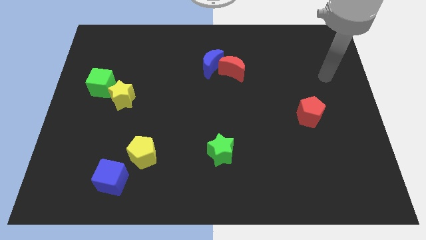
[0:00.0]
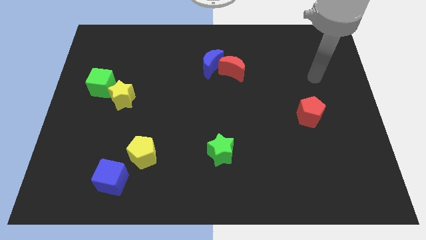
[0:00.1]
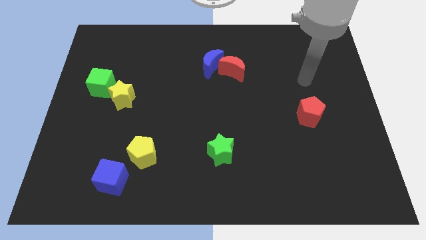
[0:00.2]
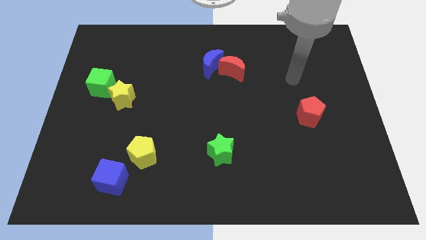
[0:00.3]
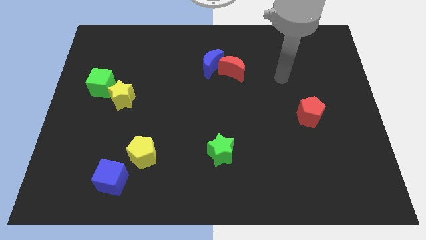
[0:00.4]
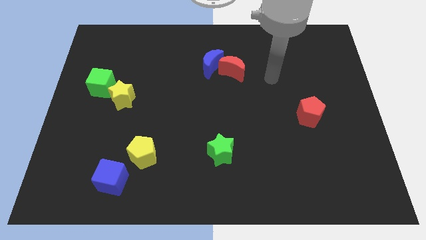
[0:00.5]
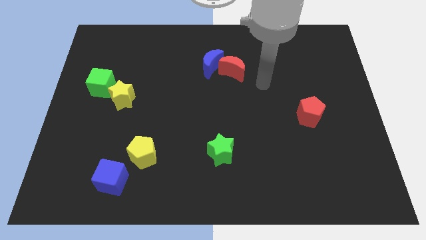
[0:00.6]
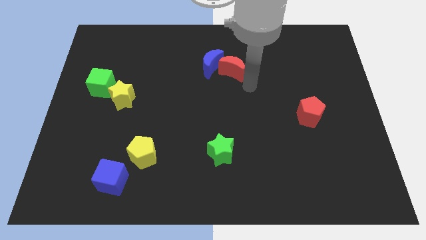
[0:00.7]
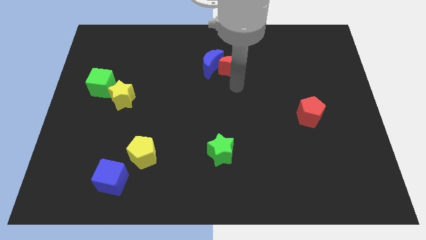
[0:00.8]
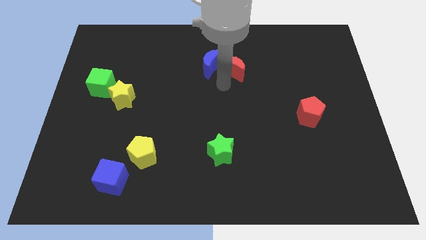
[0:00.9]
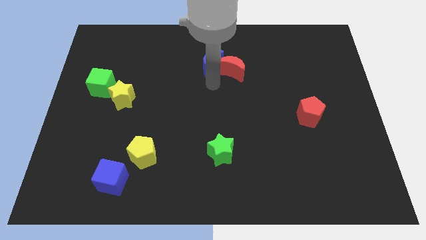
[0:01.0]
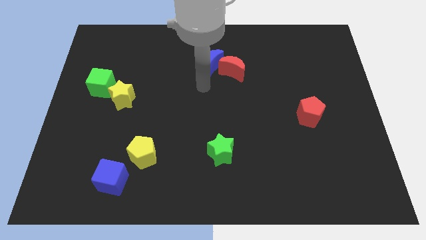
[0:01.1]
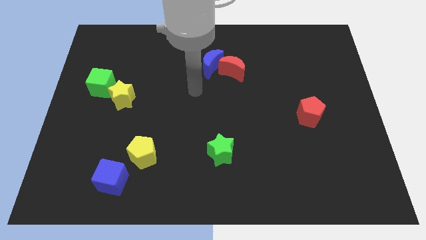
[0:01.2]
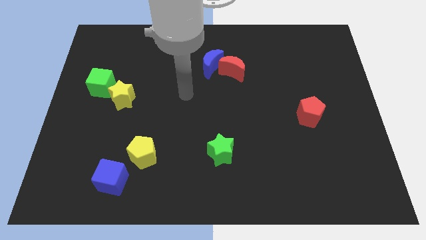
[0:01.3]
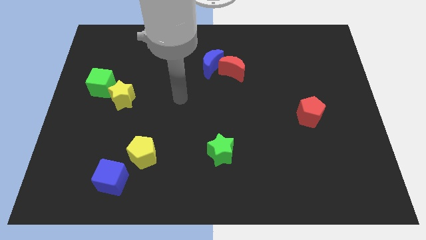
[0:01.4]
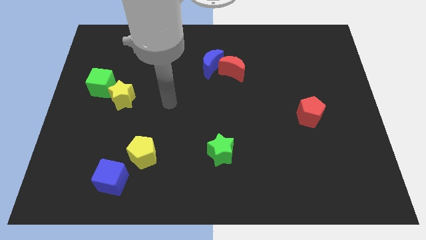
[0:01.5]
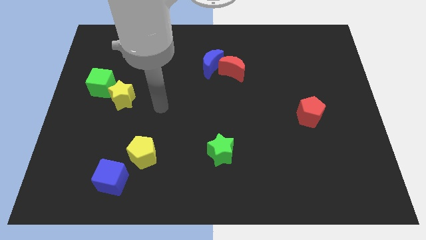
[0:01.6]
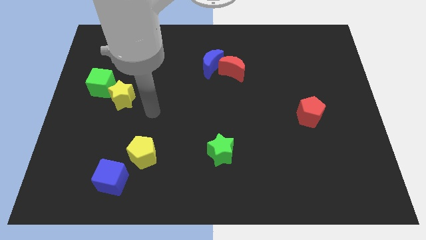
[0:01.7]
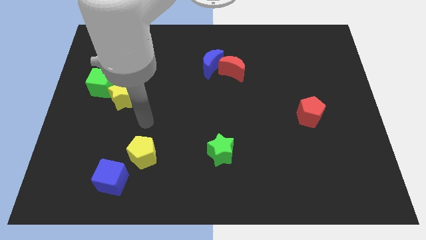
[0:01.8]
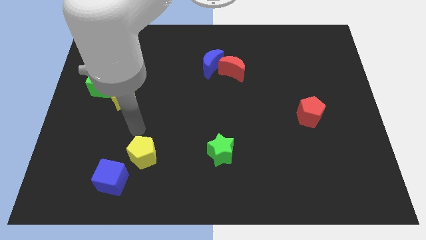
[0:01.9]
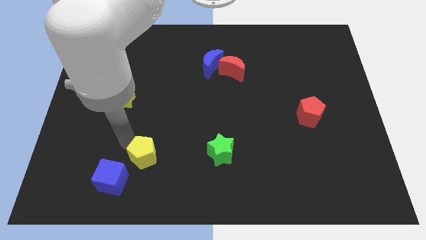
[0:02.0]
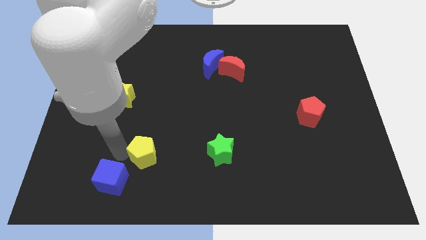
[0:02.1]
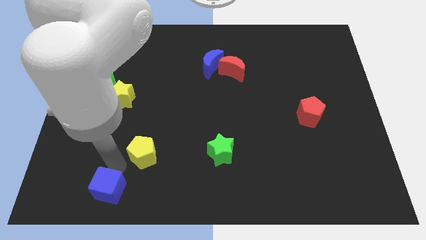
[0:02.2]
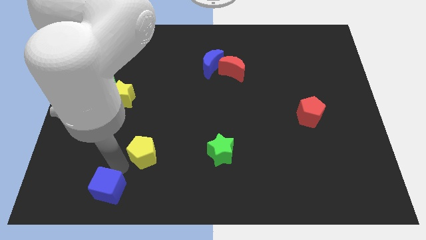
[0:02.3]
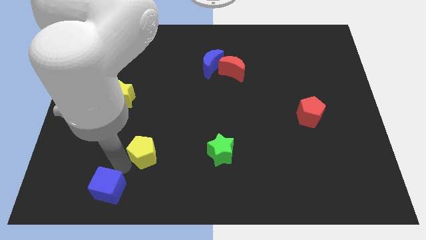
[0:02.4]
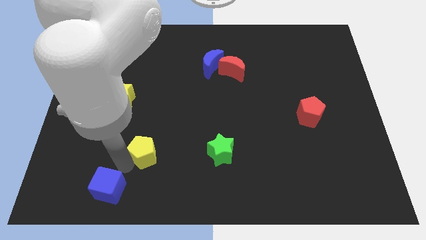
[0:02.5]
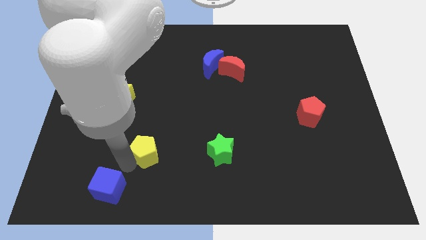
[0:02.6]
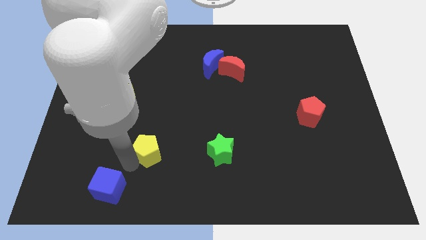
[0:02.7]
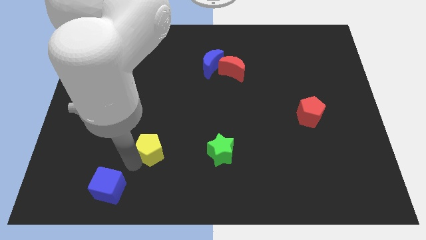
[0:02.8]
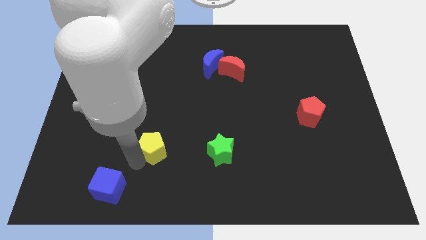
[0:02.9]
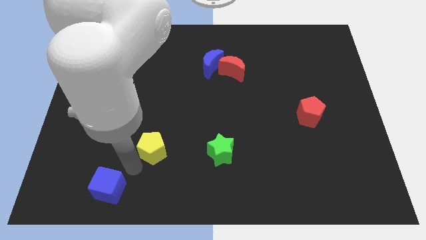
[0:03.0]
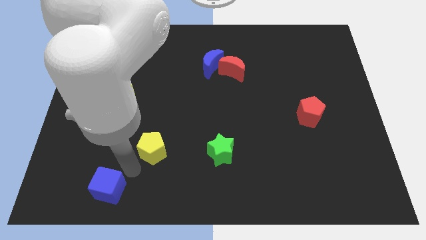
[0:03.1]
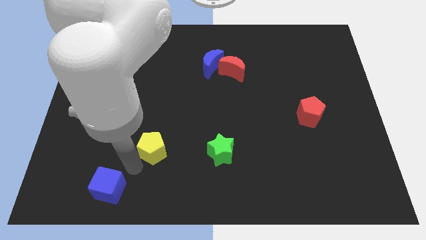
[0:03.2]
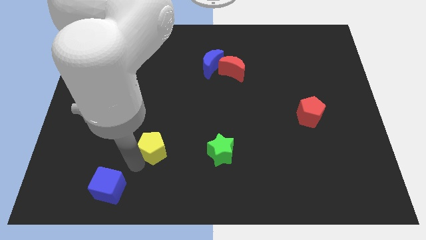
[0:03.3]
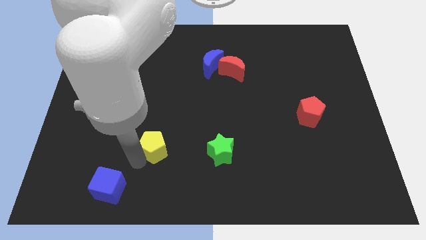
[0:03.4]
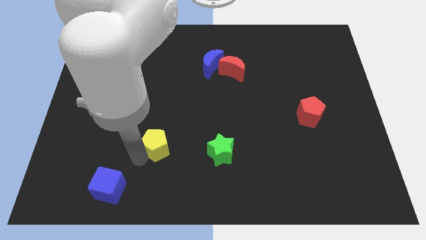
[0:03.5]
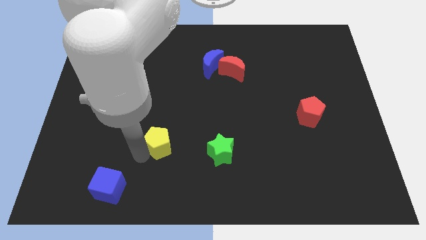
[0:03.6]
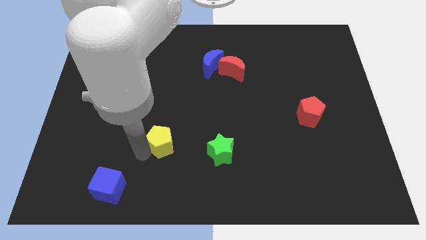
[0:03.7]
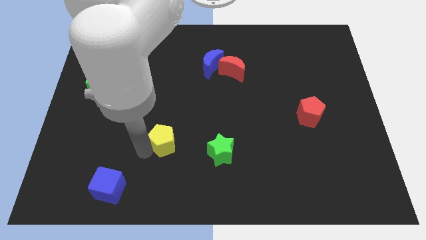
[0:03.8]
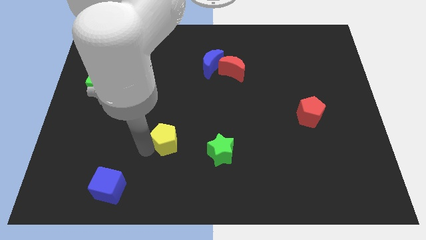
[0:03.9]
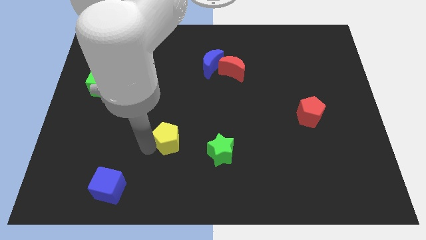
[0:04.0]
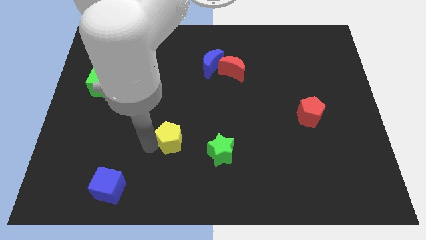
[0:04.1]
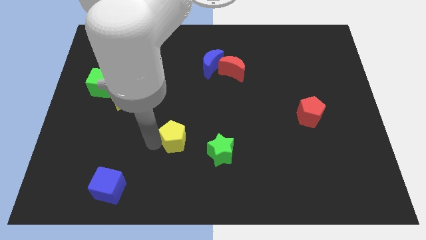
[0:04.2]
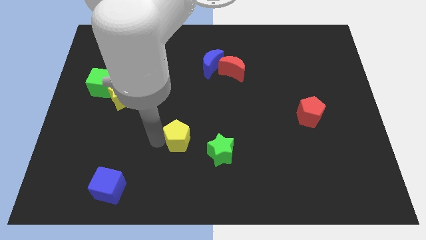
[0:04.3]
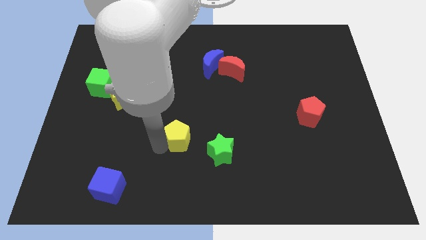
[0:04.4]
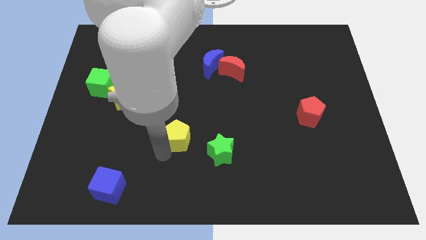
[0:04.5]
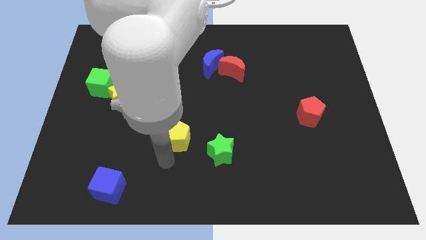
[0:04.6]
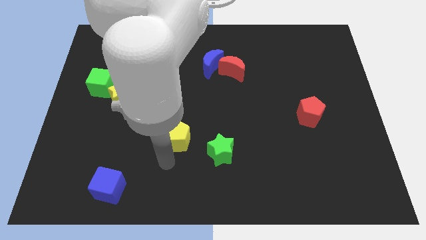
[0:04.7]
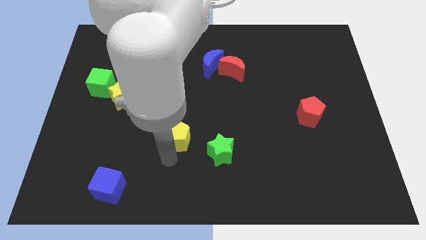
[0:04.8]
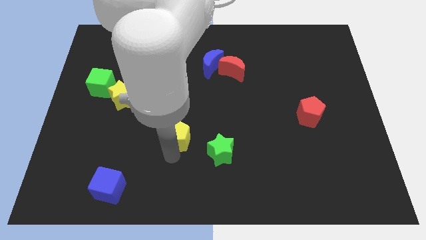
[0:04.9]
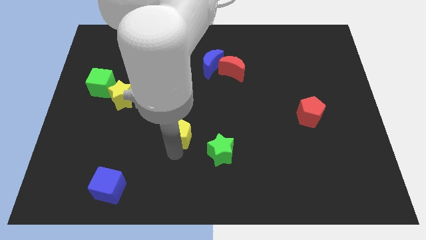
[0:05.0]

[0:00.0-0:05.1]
put the yellow pentagon to the middle

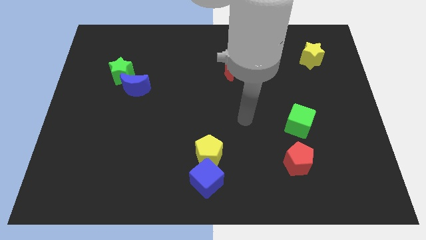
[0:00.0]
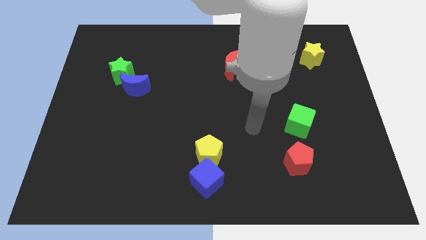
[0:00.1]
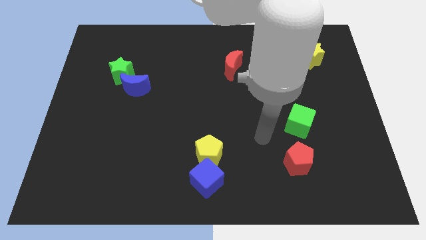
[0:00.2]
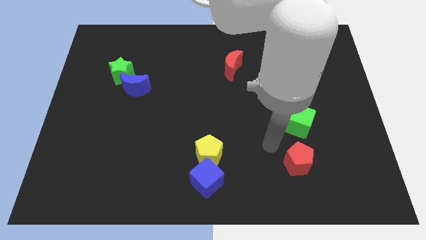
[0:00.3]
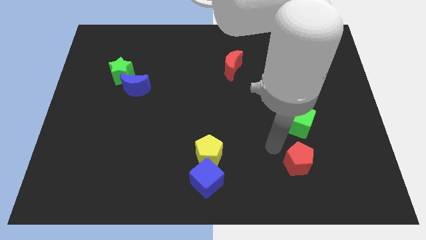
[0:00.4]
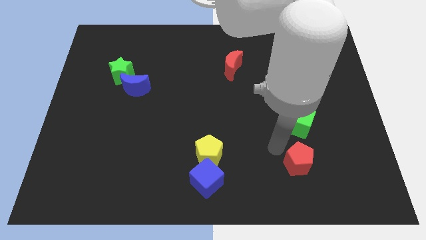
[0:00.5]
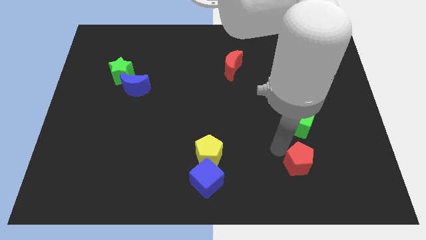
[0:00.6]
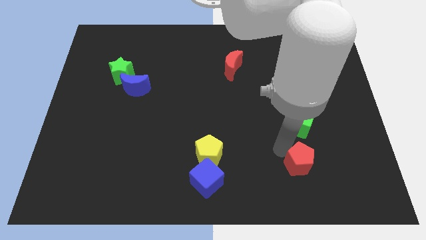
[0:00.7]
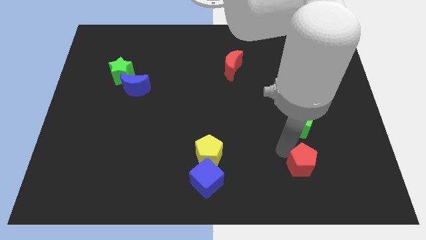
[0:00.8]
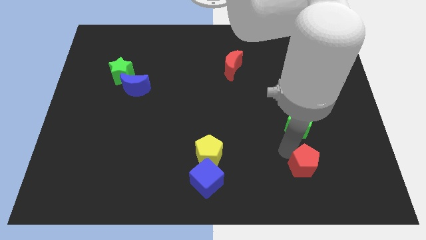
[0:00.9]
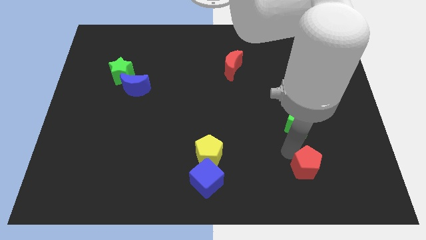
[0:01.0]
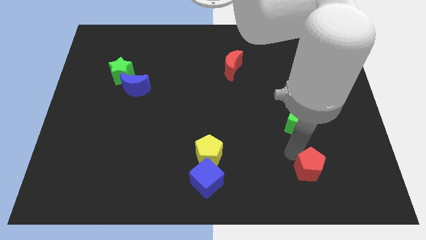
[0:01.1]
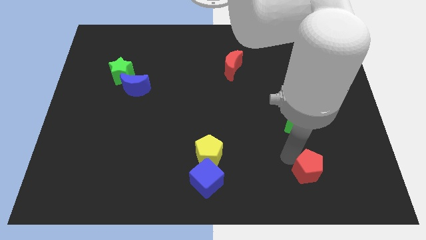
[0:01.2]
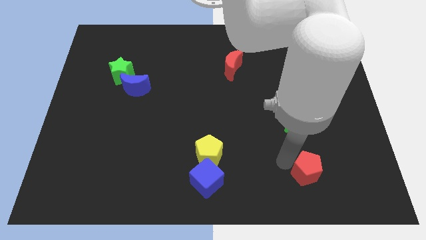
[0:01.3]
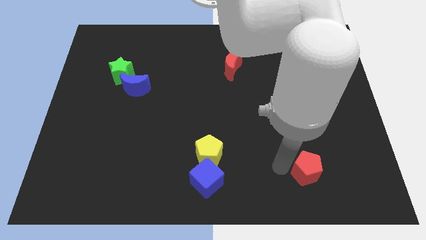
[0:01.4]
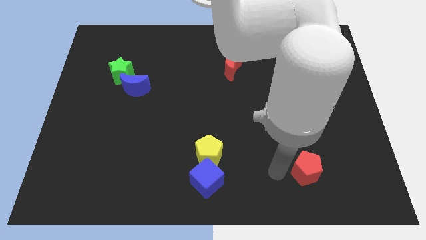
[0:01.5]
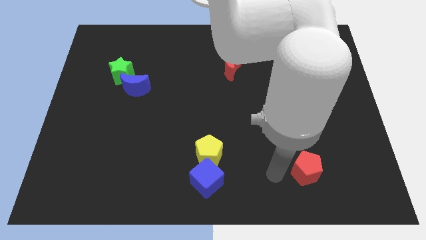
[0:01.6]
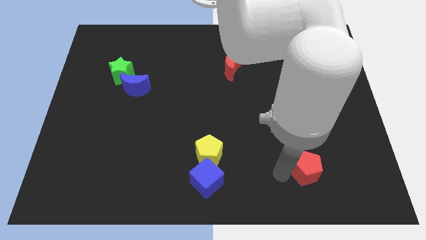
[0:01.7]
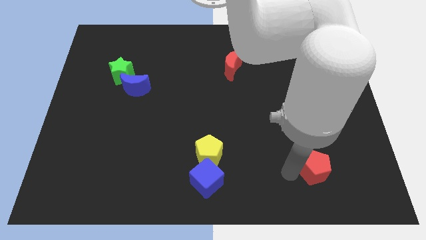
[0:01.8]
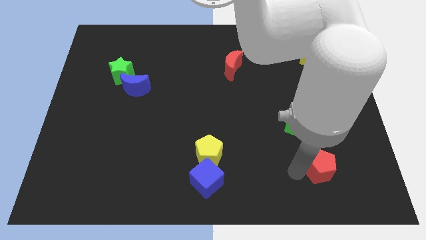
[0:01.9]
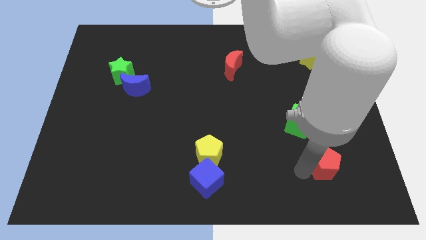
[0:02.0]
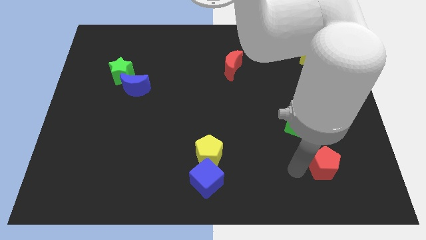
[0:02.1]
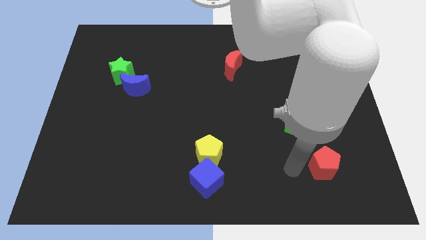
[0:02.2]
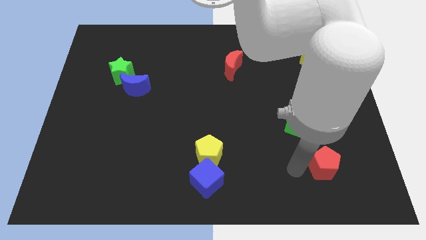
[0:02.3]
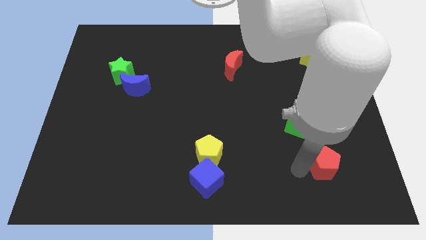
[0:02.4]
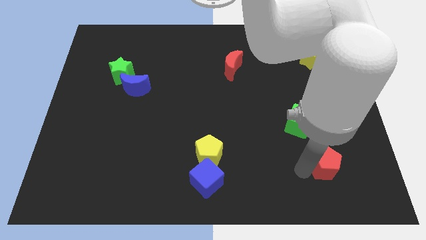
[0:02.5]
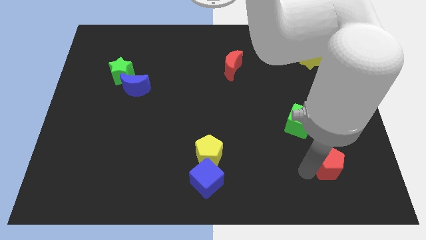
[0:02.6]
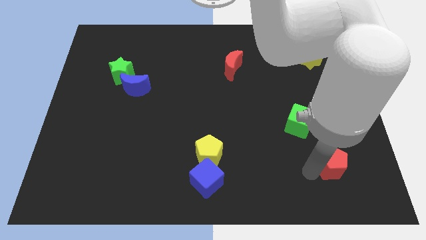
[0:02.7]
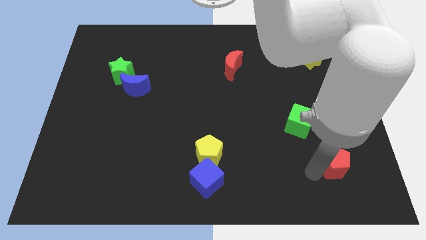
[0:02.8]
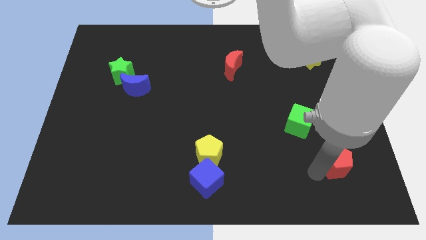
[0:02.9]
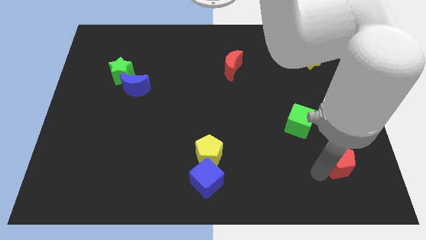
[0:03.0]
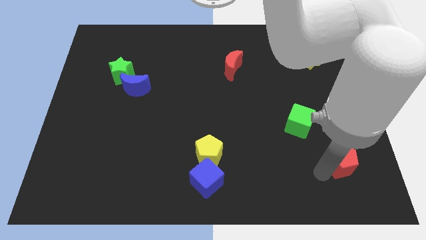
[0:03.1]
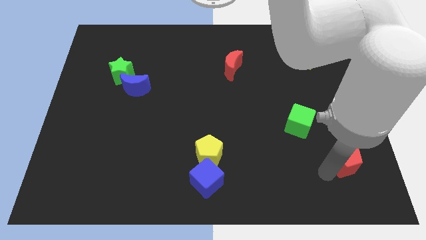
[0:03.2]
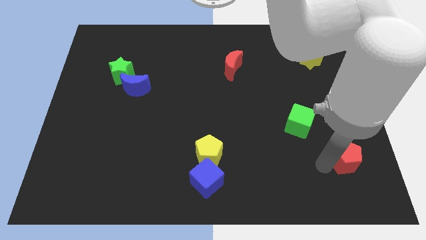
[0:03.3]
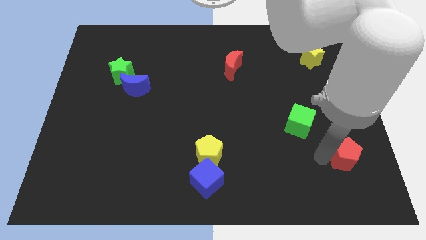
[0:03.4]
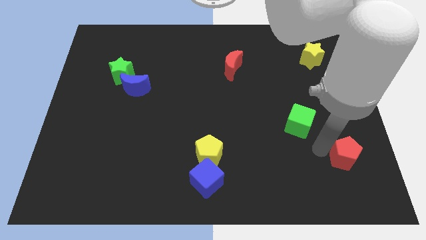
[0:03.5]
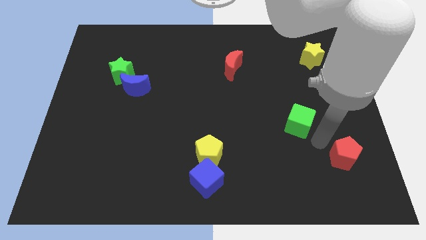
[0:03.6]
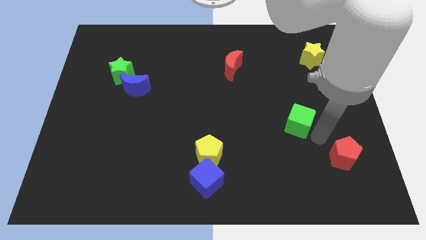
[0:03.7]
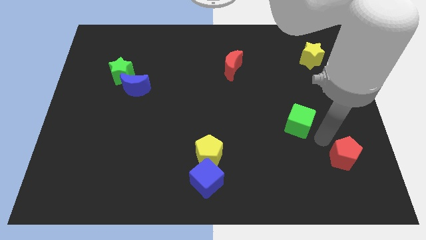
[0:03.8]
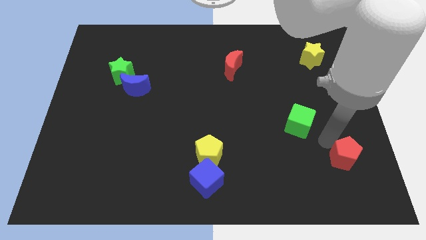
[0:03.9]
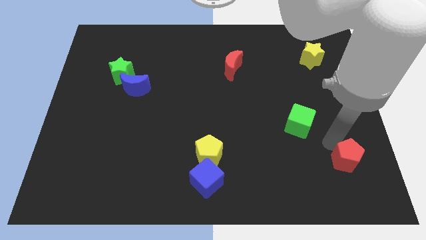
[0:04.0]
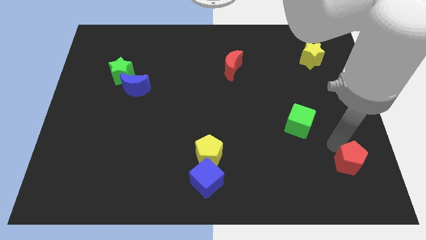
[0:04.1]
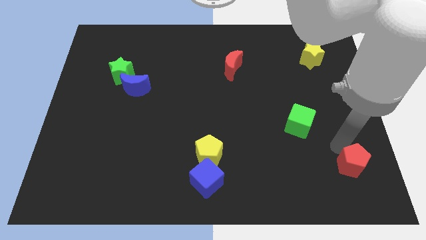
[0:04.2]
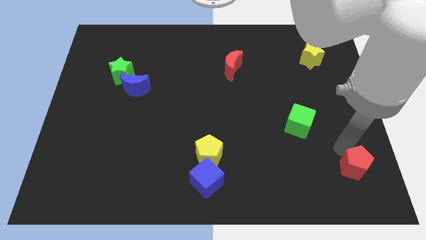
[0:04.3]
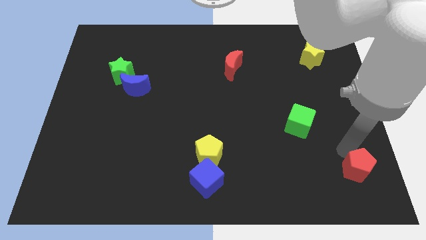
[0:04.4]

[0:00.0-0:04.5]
move the red pentagon to the lower right corner
